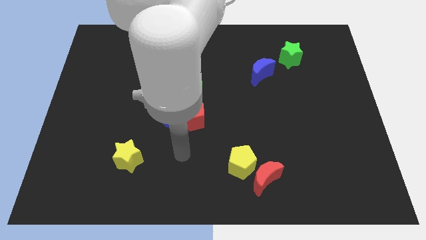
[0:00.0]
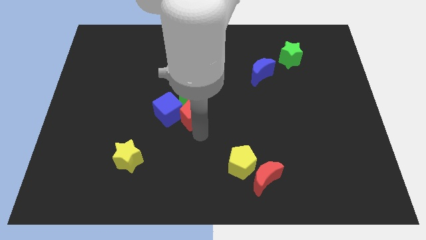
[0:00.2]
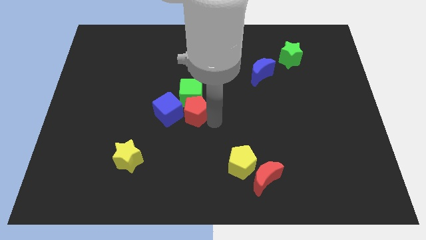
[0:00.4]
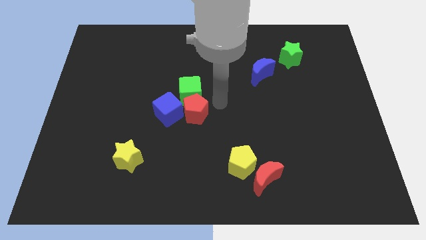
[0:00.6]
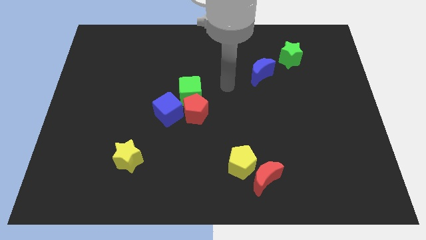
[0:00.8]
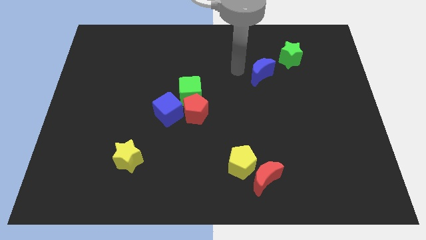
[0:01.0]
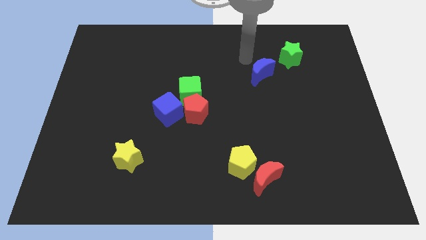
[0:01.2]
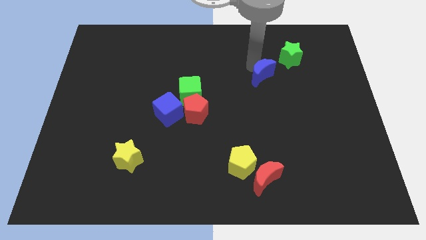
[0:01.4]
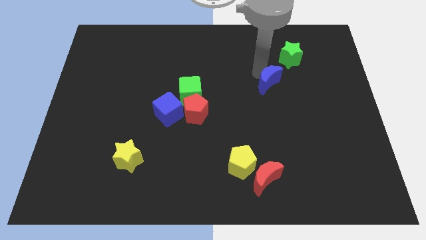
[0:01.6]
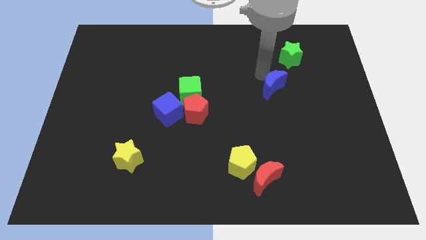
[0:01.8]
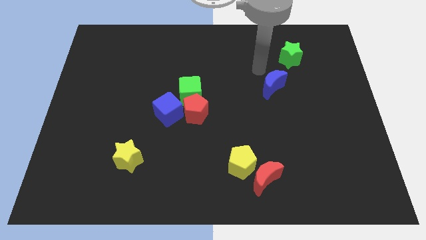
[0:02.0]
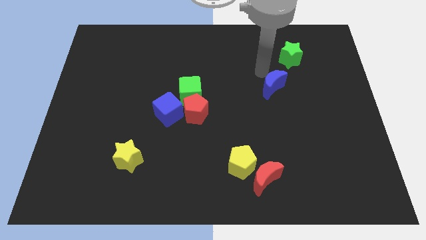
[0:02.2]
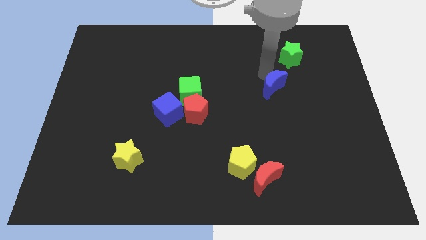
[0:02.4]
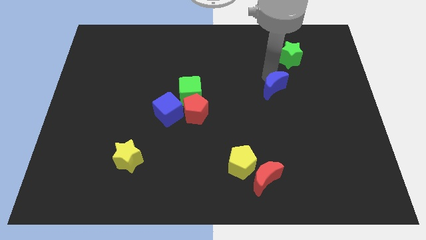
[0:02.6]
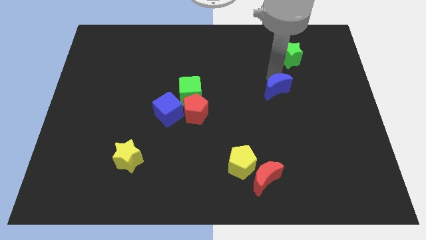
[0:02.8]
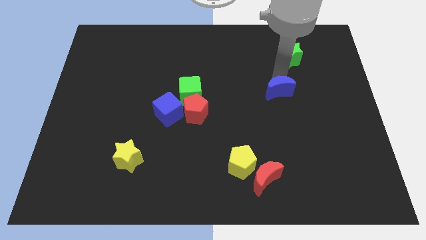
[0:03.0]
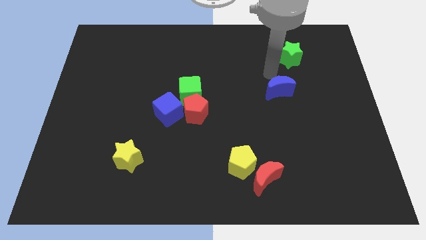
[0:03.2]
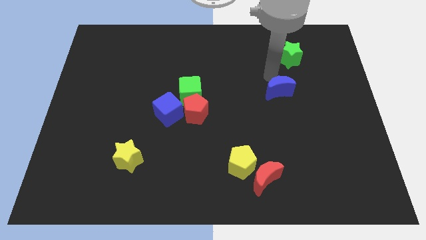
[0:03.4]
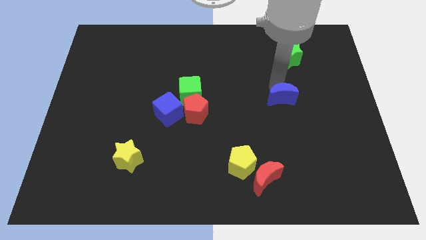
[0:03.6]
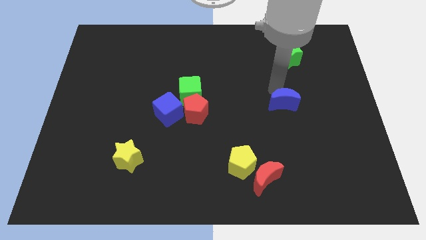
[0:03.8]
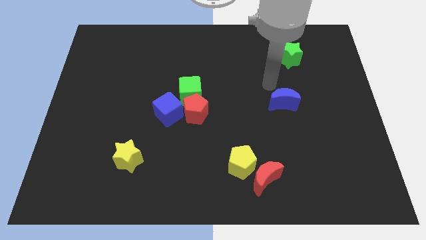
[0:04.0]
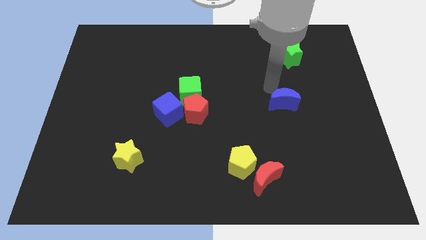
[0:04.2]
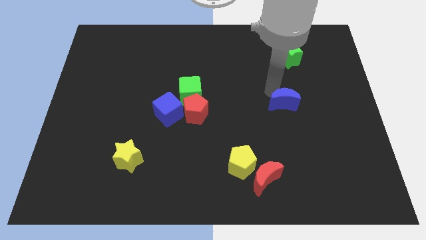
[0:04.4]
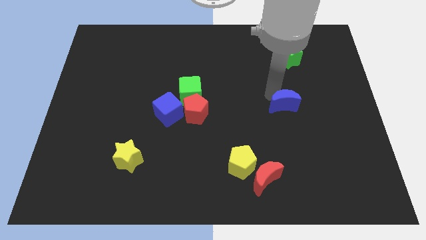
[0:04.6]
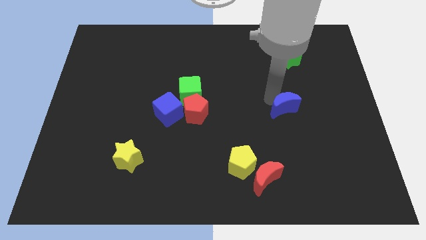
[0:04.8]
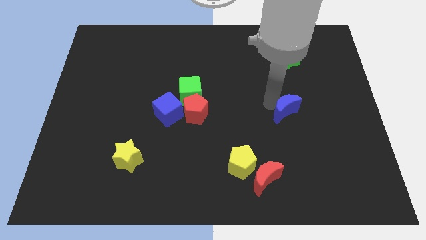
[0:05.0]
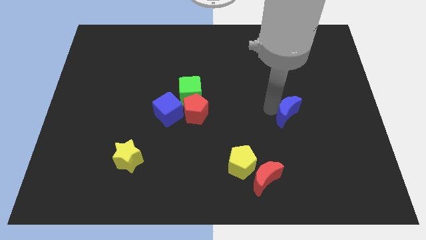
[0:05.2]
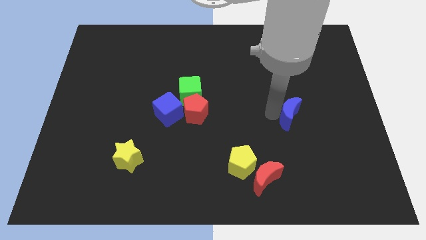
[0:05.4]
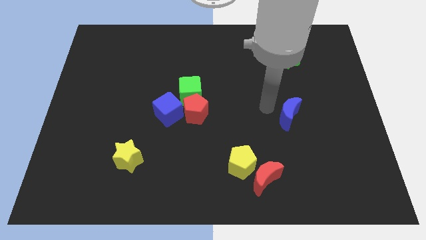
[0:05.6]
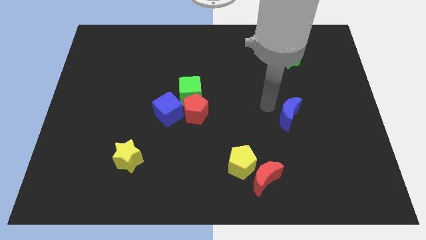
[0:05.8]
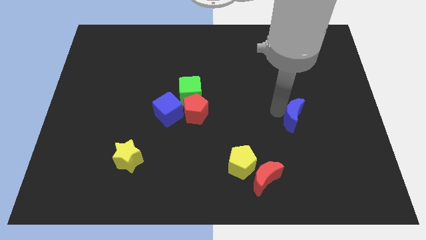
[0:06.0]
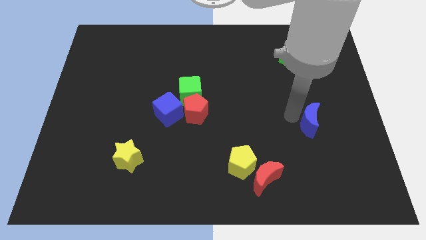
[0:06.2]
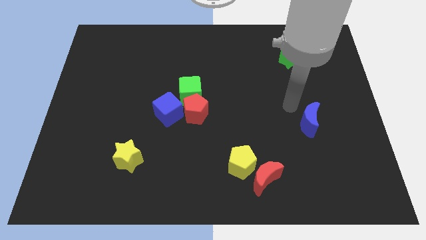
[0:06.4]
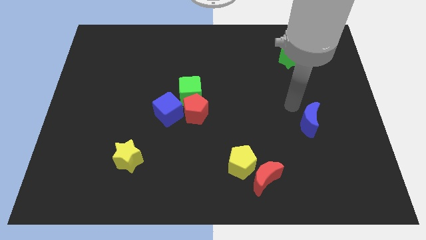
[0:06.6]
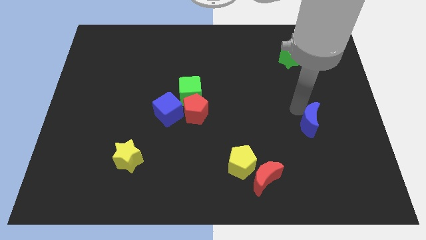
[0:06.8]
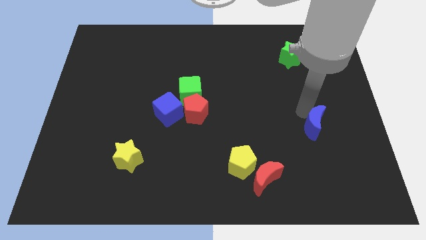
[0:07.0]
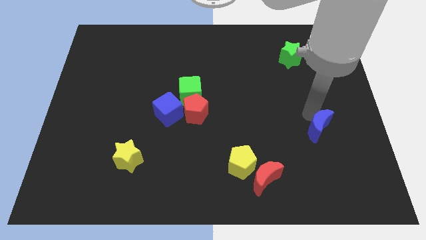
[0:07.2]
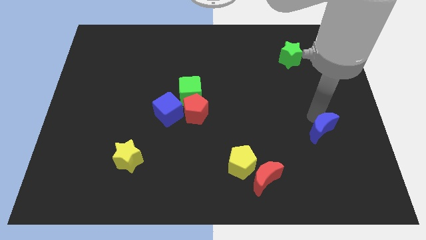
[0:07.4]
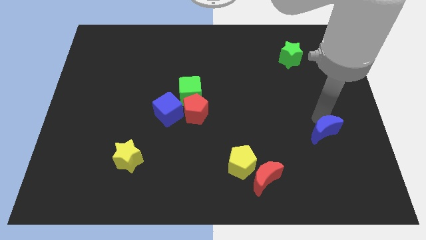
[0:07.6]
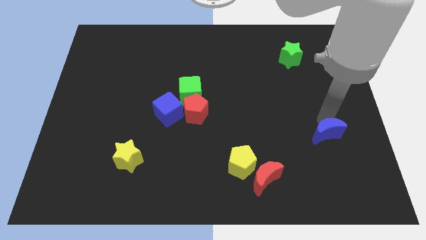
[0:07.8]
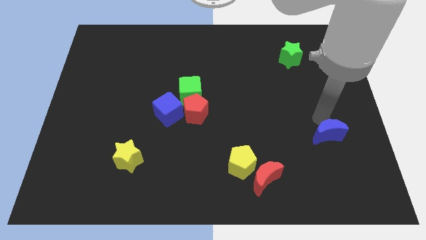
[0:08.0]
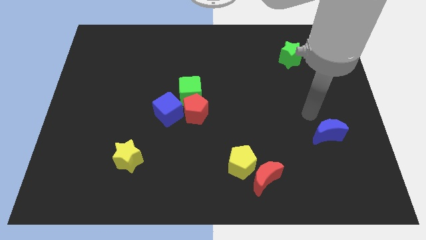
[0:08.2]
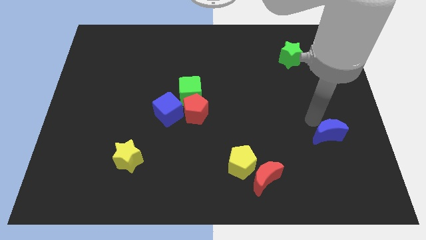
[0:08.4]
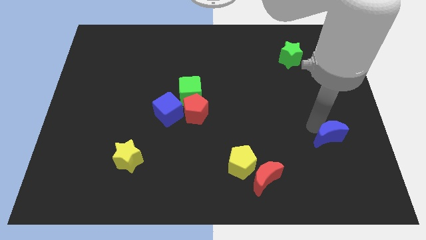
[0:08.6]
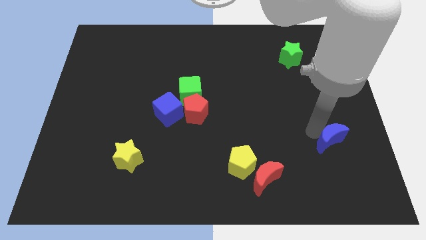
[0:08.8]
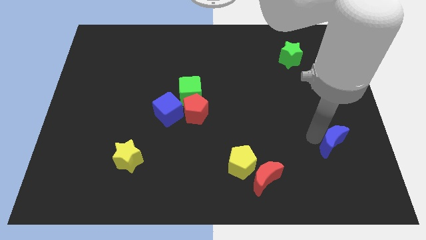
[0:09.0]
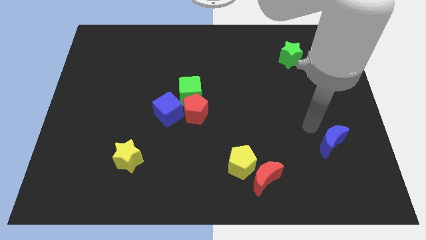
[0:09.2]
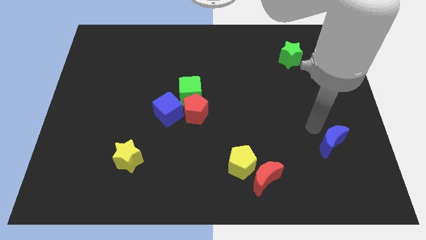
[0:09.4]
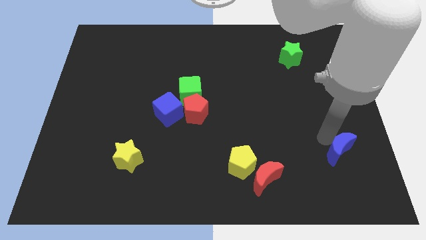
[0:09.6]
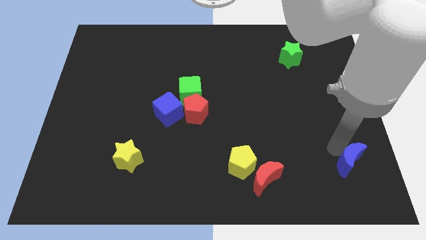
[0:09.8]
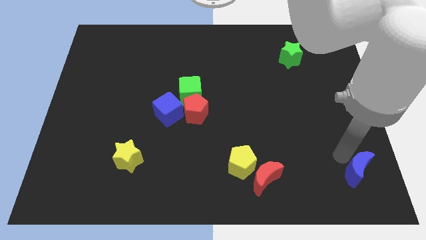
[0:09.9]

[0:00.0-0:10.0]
put the blue moon to the bottom right

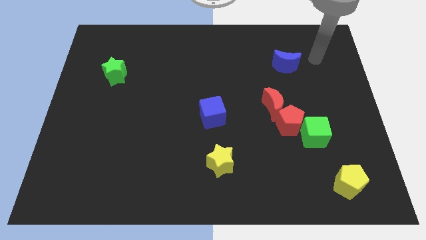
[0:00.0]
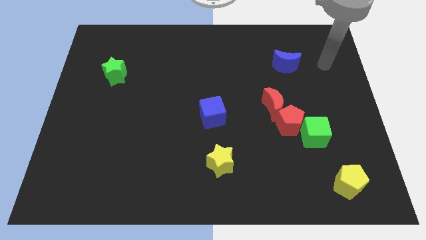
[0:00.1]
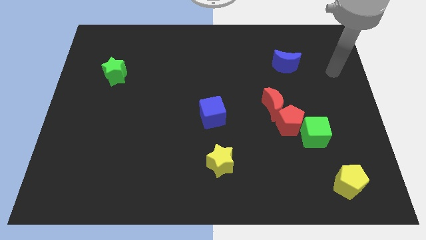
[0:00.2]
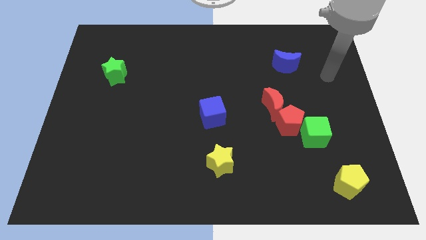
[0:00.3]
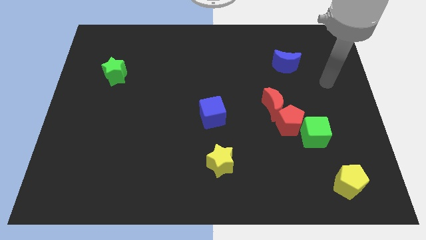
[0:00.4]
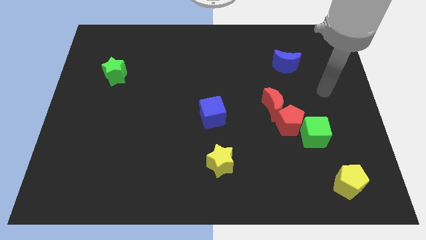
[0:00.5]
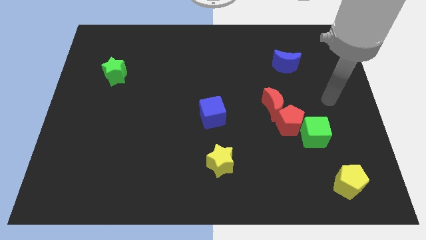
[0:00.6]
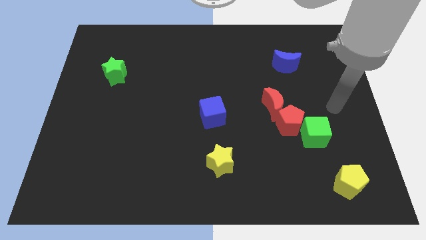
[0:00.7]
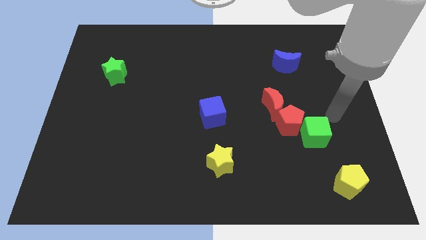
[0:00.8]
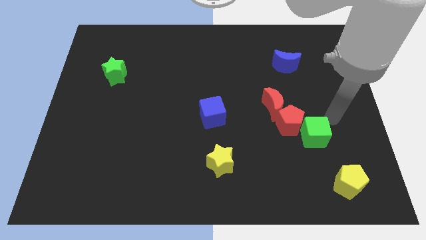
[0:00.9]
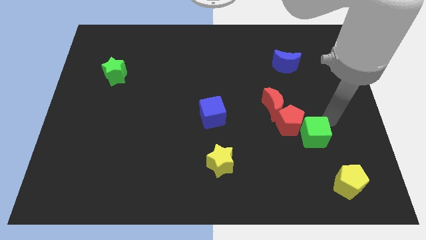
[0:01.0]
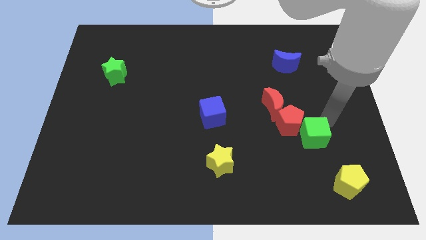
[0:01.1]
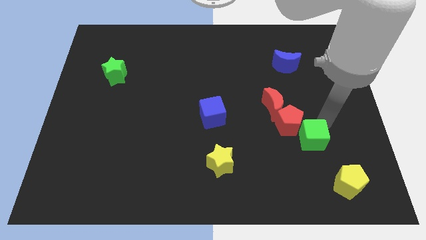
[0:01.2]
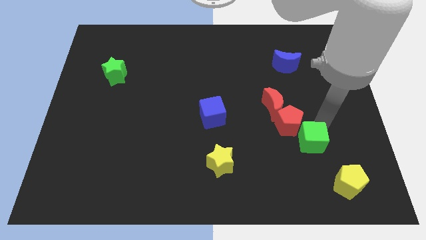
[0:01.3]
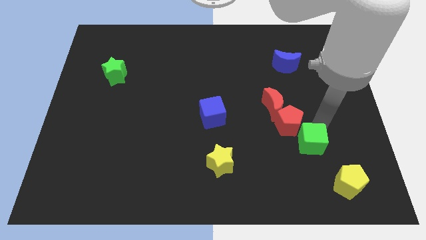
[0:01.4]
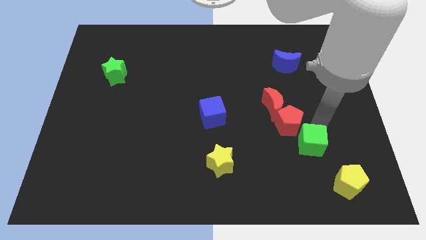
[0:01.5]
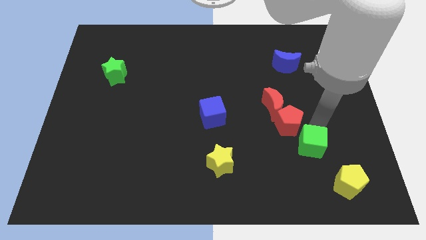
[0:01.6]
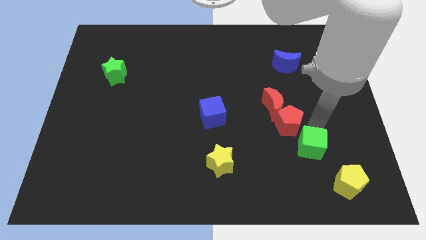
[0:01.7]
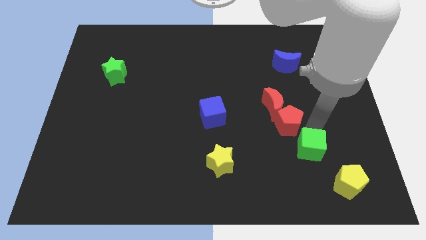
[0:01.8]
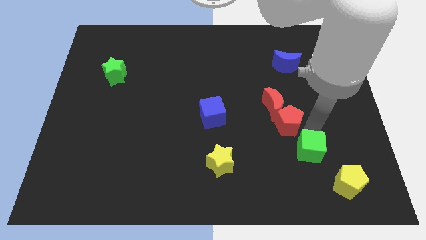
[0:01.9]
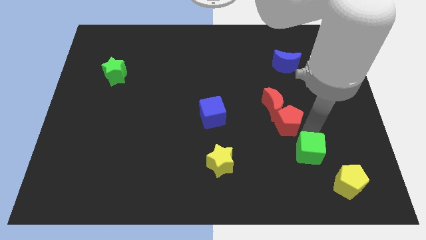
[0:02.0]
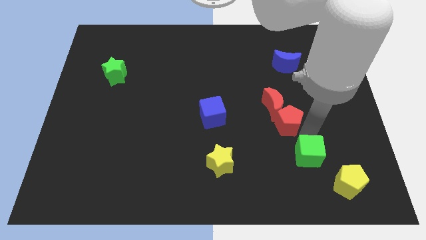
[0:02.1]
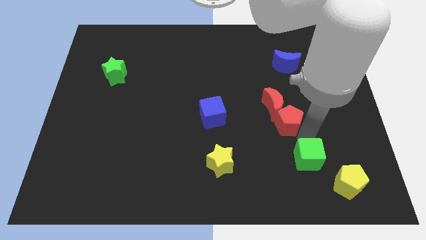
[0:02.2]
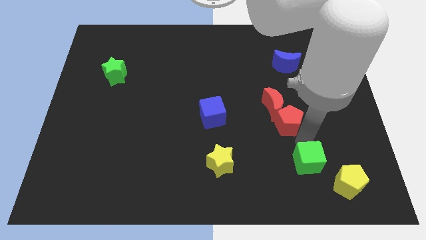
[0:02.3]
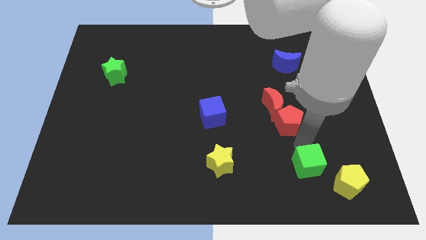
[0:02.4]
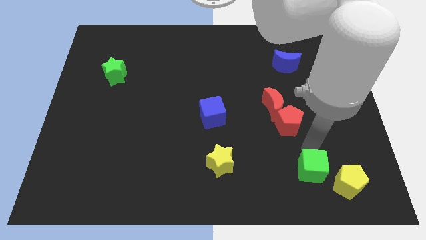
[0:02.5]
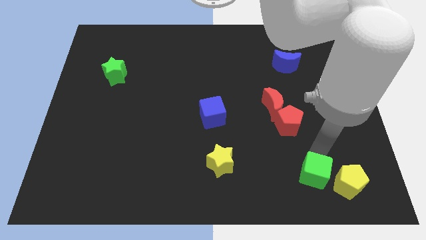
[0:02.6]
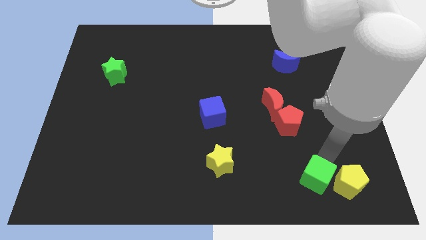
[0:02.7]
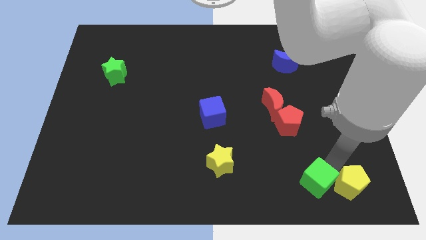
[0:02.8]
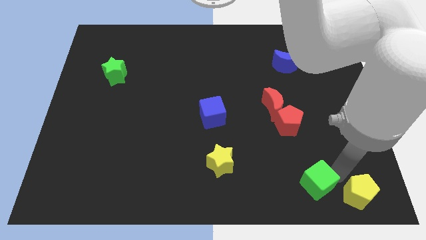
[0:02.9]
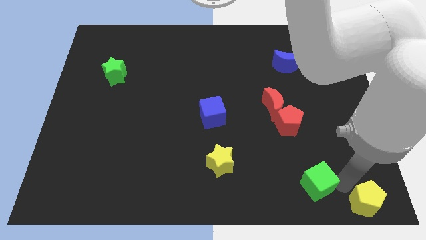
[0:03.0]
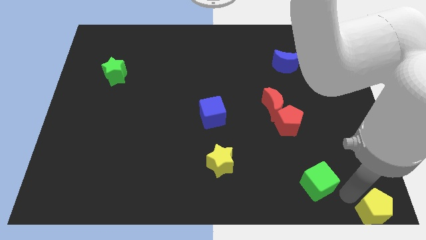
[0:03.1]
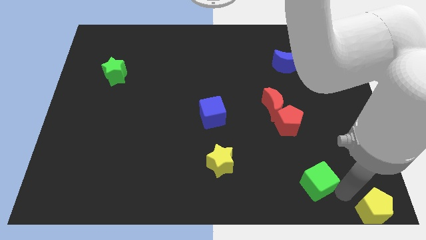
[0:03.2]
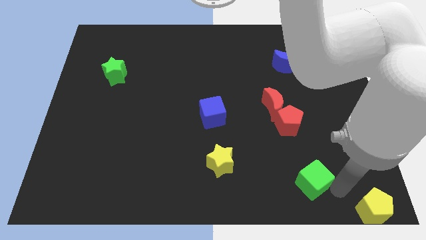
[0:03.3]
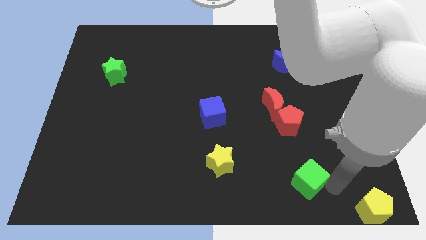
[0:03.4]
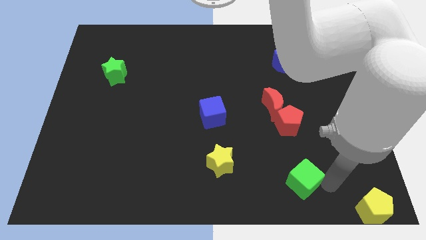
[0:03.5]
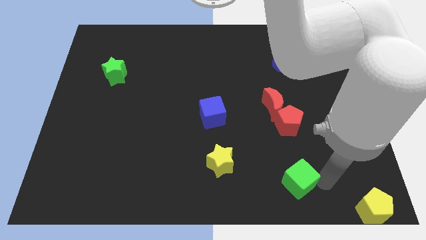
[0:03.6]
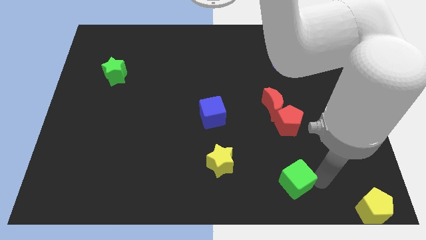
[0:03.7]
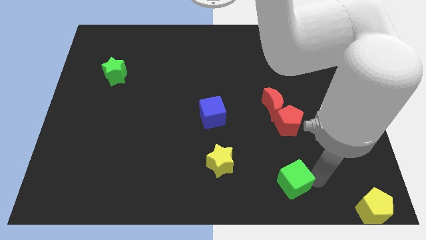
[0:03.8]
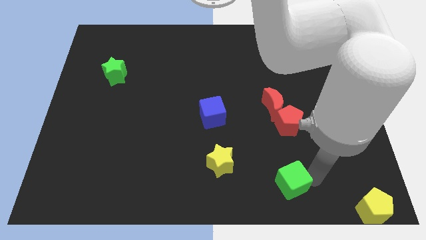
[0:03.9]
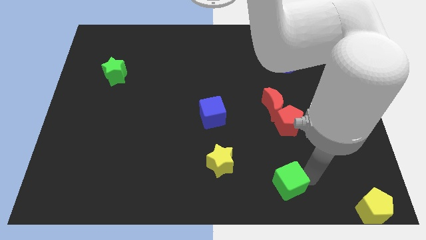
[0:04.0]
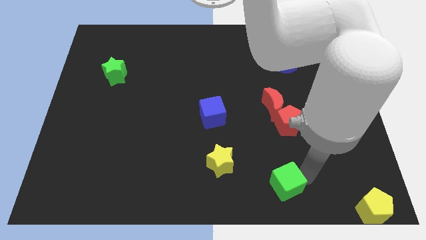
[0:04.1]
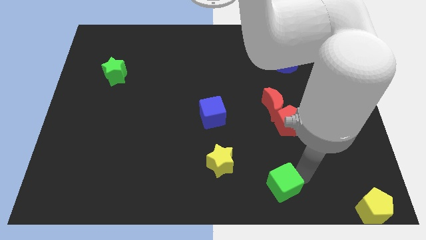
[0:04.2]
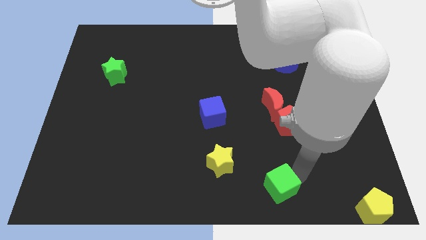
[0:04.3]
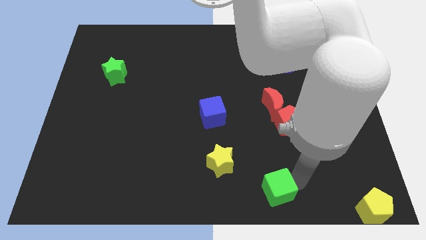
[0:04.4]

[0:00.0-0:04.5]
slide the green cube to the bottom side
